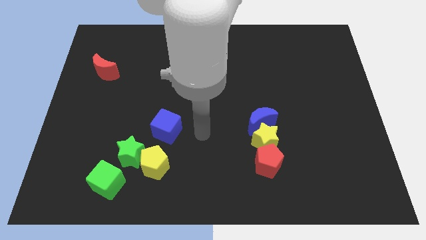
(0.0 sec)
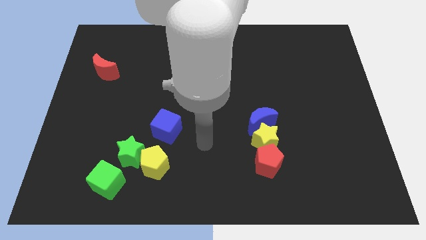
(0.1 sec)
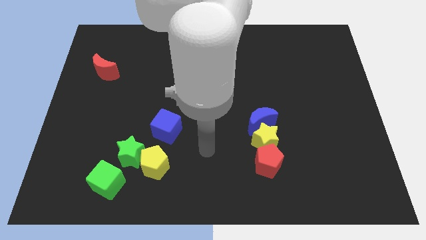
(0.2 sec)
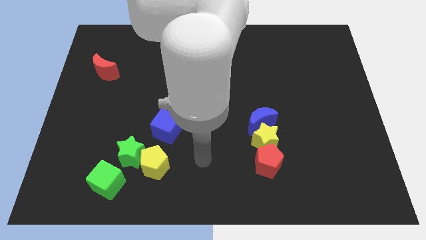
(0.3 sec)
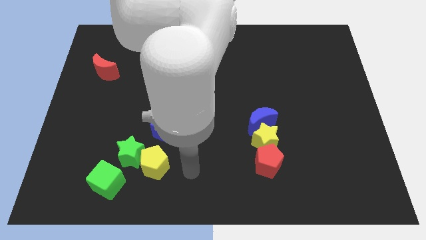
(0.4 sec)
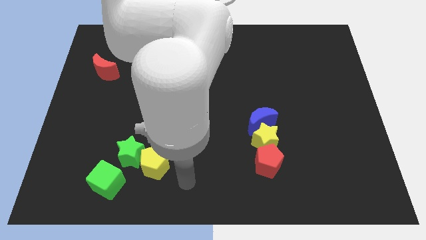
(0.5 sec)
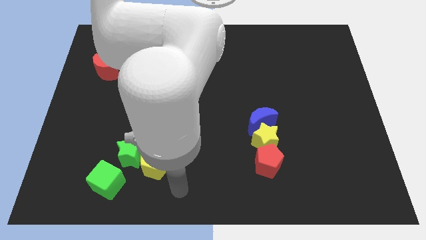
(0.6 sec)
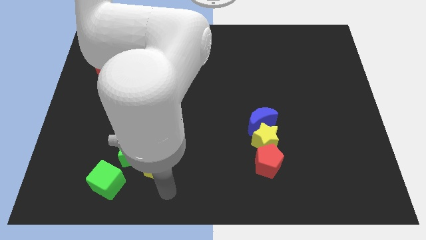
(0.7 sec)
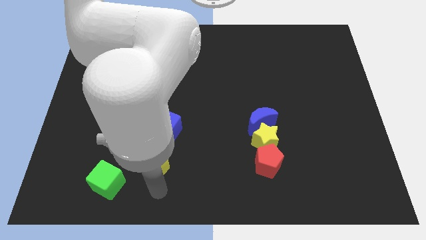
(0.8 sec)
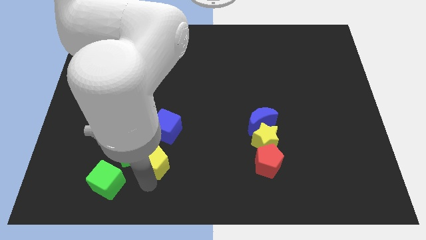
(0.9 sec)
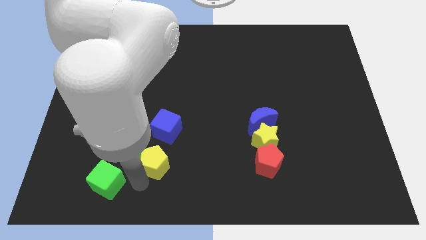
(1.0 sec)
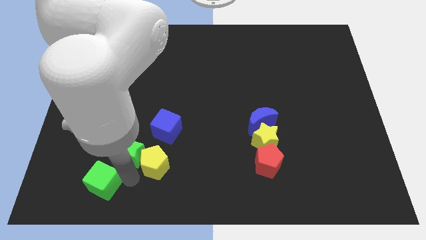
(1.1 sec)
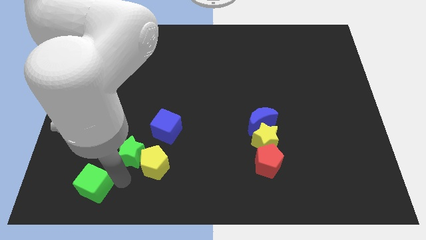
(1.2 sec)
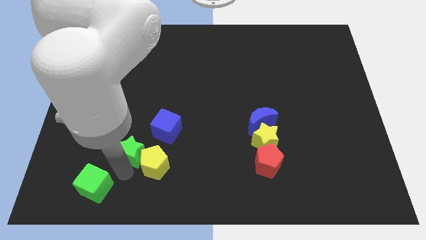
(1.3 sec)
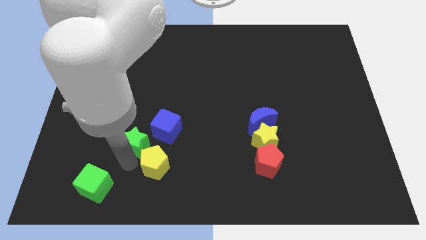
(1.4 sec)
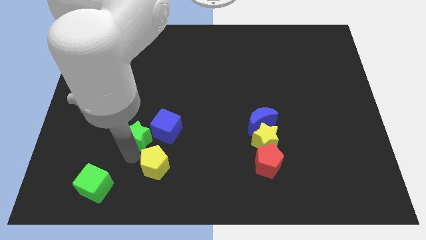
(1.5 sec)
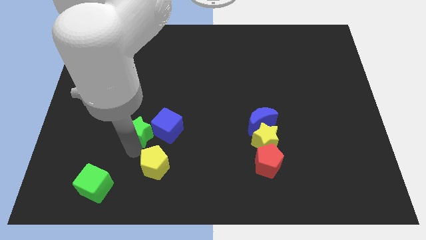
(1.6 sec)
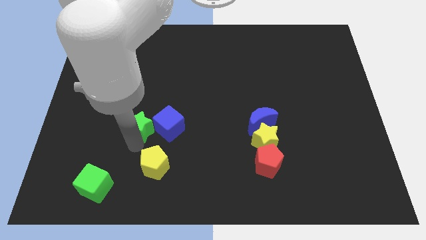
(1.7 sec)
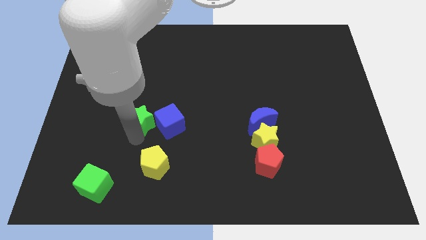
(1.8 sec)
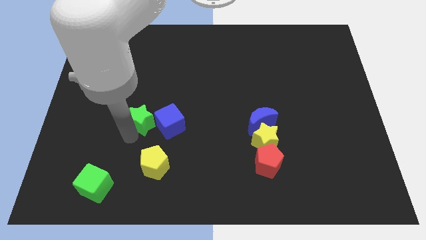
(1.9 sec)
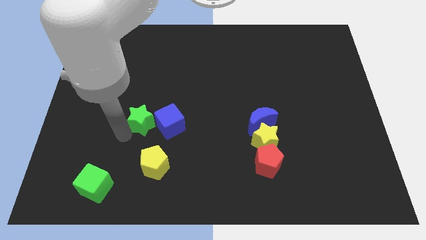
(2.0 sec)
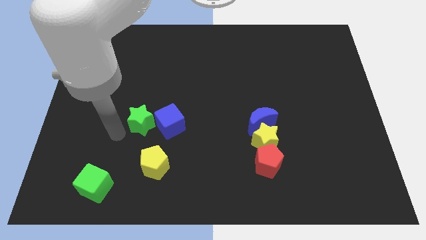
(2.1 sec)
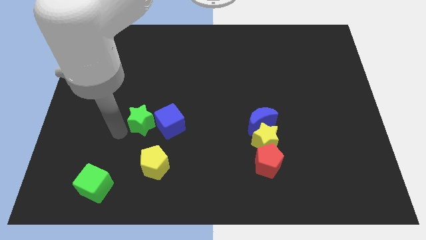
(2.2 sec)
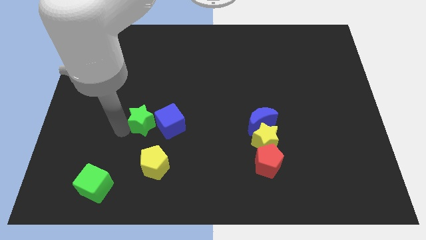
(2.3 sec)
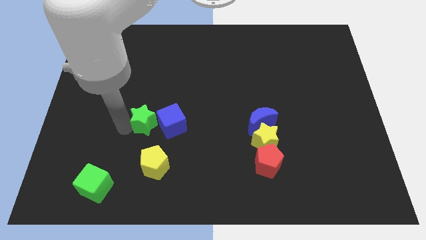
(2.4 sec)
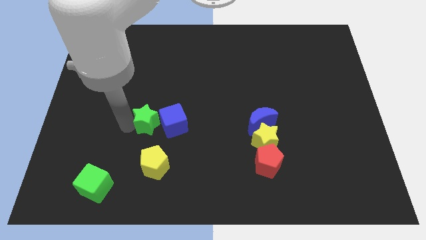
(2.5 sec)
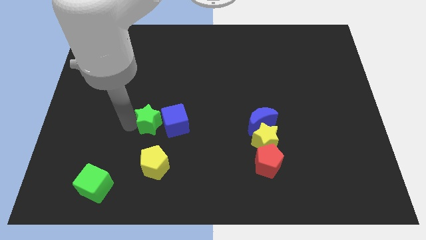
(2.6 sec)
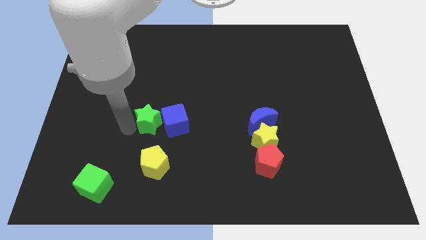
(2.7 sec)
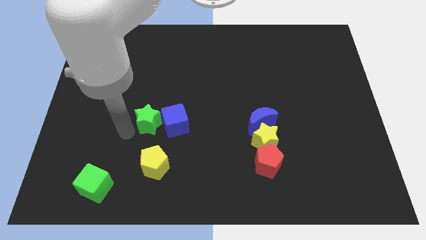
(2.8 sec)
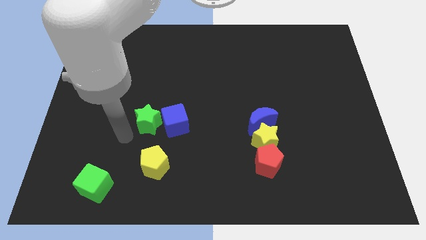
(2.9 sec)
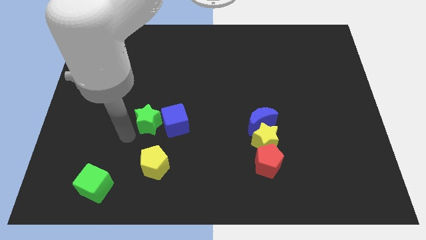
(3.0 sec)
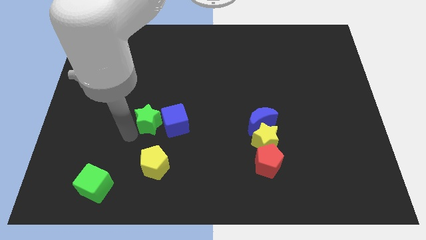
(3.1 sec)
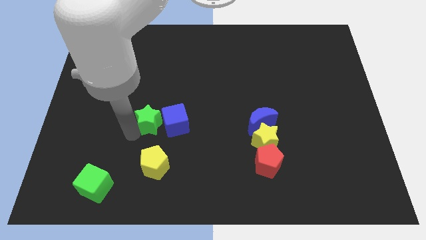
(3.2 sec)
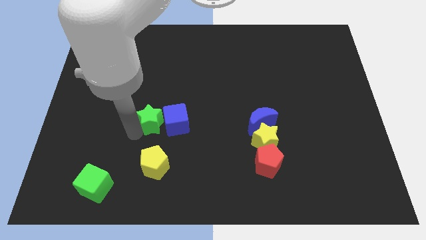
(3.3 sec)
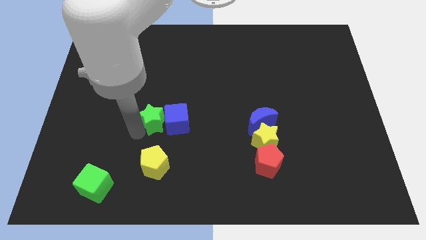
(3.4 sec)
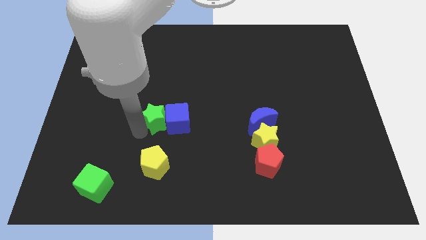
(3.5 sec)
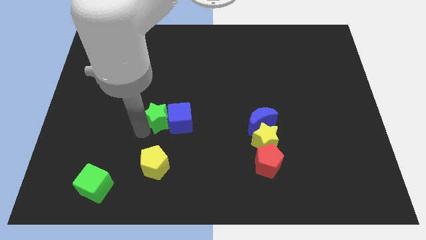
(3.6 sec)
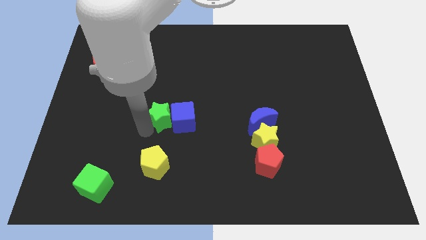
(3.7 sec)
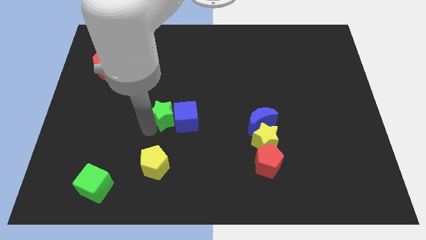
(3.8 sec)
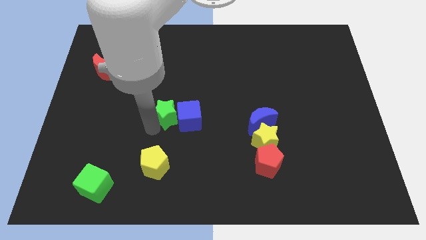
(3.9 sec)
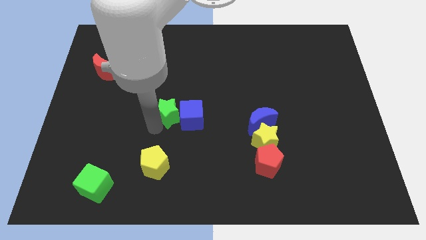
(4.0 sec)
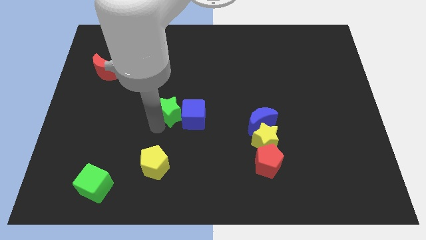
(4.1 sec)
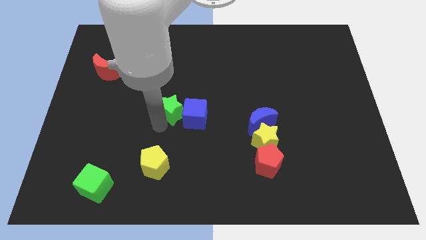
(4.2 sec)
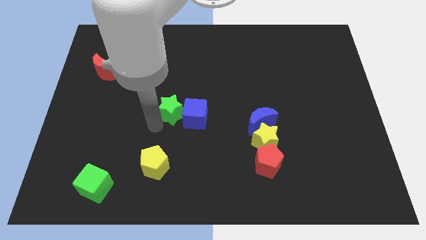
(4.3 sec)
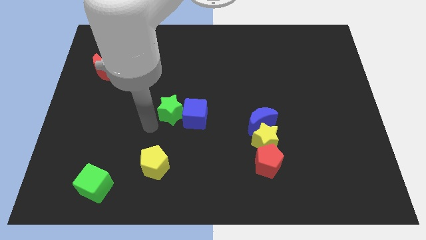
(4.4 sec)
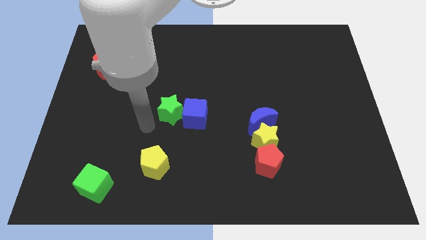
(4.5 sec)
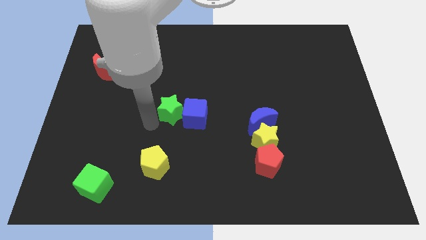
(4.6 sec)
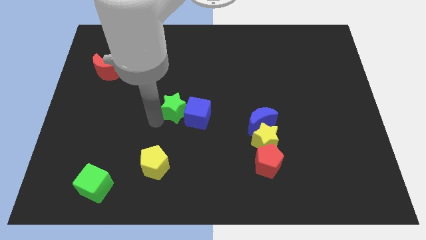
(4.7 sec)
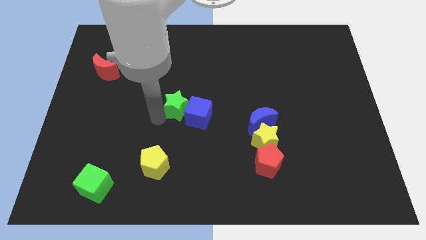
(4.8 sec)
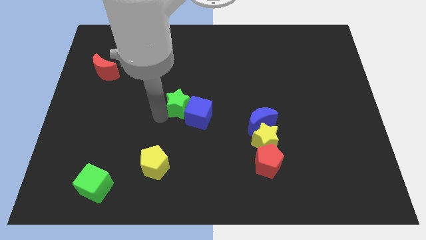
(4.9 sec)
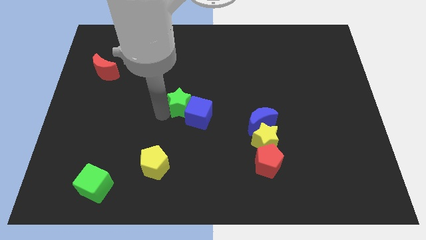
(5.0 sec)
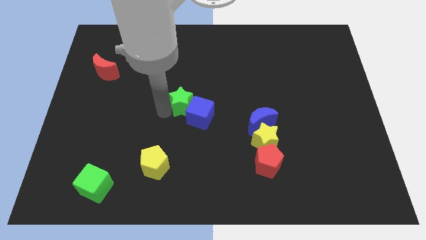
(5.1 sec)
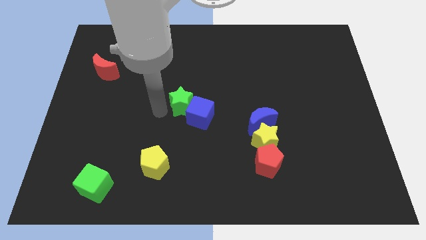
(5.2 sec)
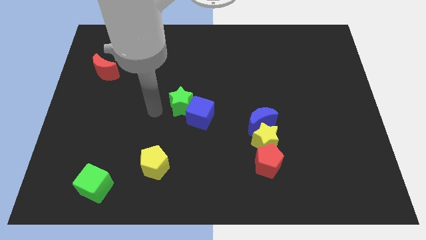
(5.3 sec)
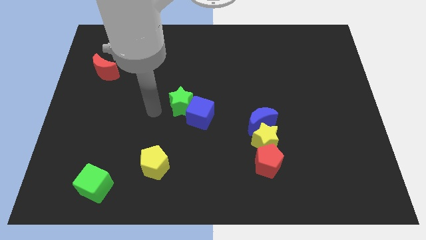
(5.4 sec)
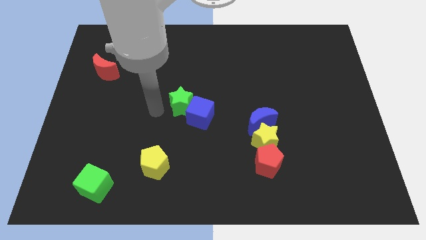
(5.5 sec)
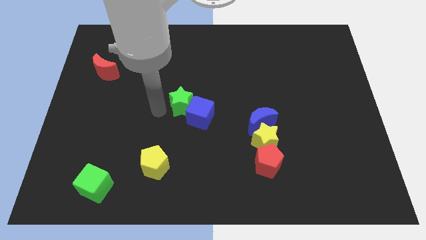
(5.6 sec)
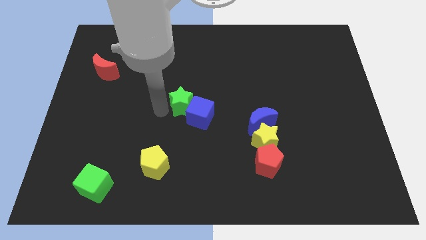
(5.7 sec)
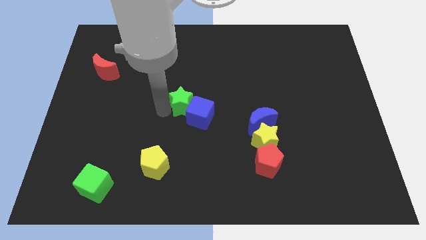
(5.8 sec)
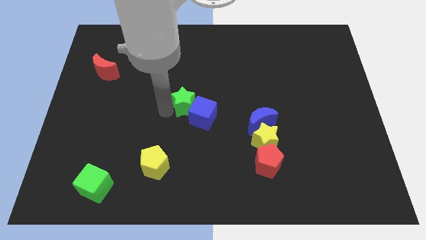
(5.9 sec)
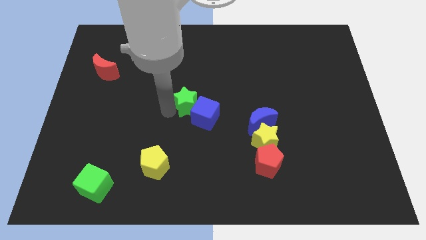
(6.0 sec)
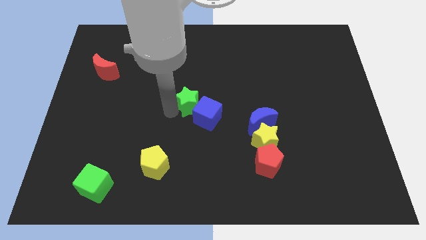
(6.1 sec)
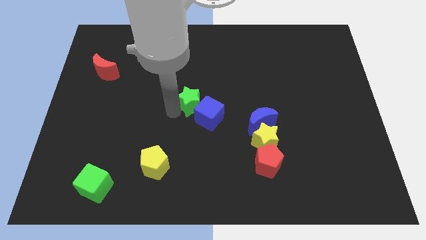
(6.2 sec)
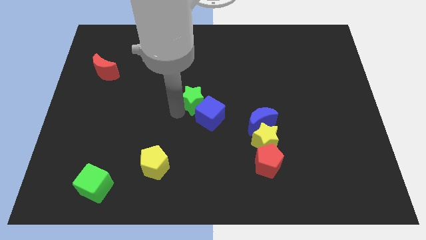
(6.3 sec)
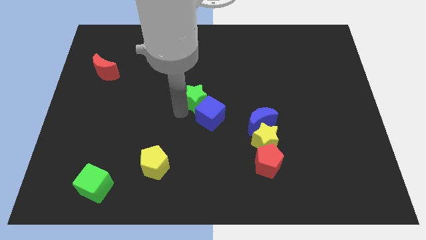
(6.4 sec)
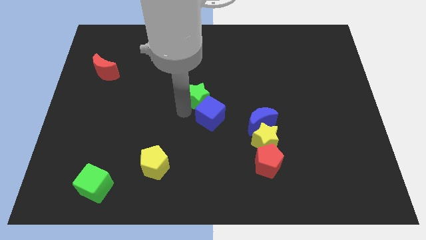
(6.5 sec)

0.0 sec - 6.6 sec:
push the green star diagonally up and right

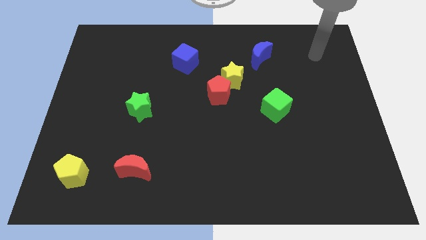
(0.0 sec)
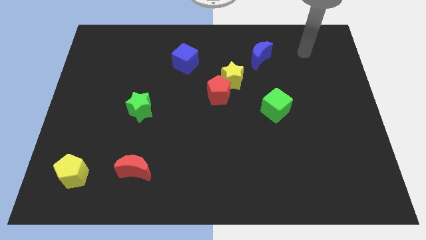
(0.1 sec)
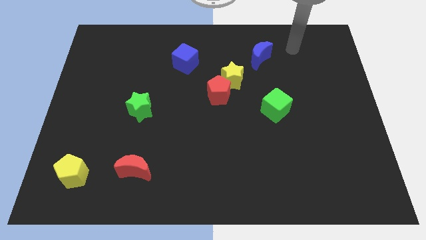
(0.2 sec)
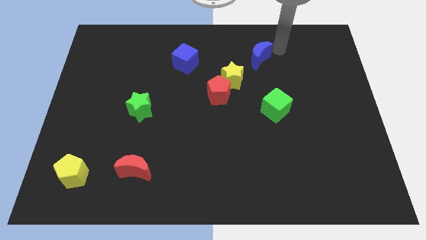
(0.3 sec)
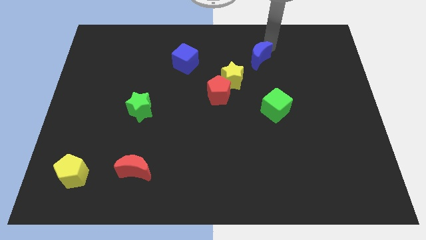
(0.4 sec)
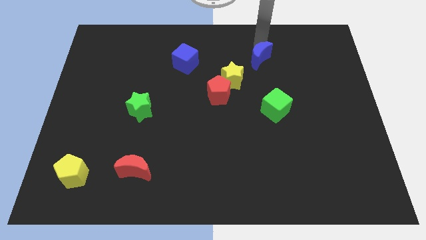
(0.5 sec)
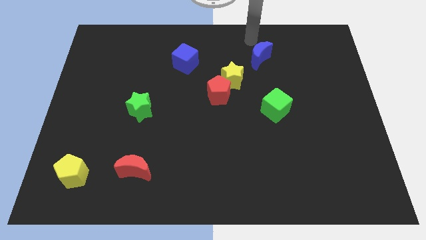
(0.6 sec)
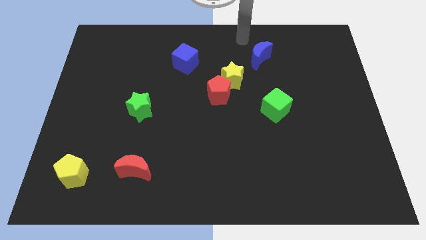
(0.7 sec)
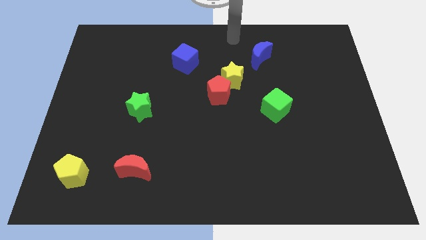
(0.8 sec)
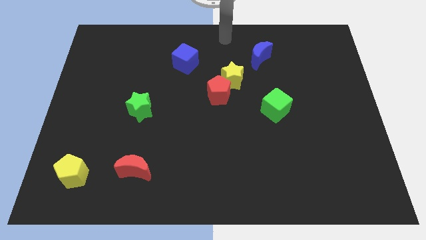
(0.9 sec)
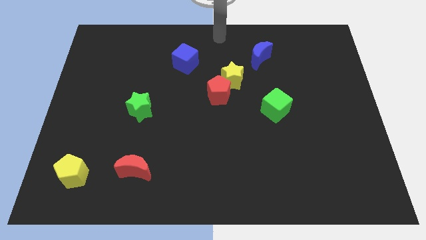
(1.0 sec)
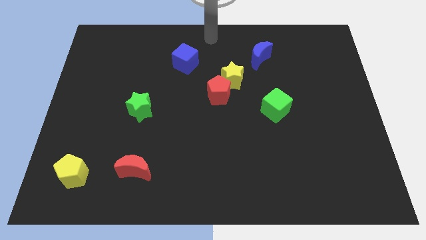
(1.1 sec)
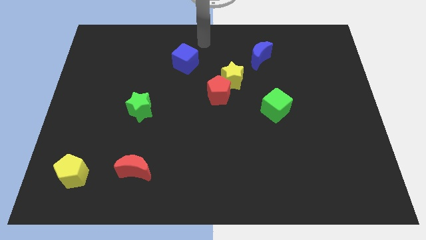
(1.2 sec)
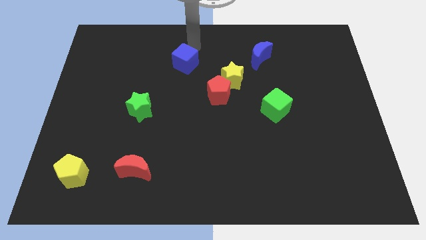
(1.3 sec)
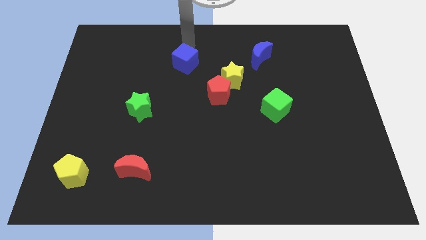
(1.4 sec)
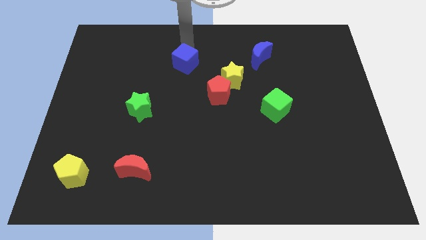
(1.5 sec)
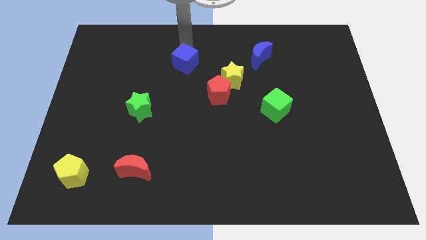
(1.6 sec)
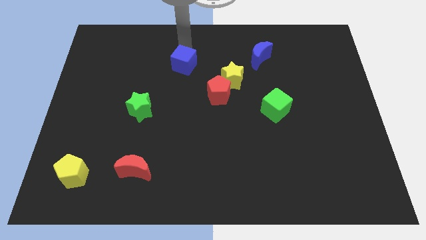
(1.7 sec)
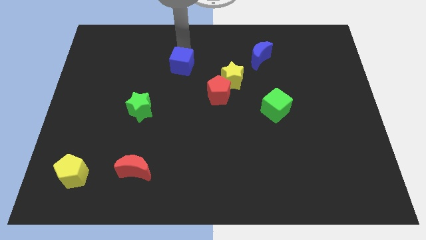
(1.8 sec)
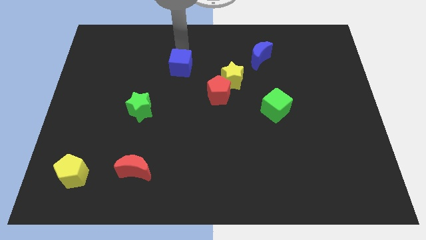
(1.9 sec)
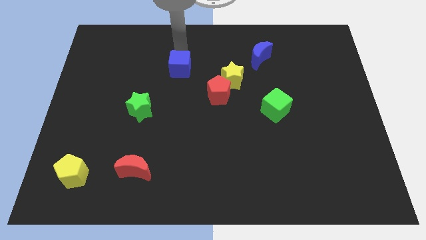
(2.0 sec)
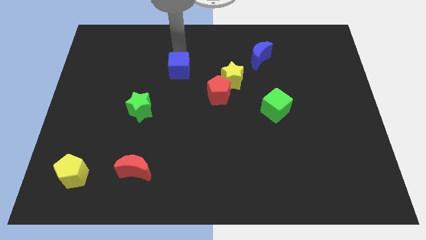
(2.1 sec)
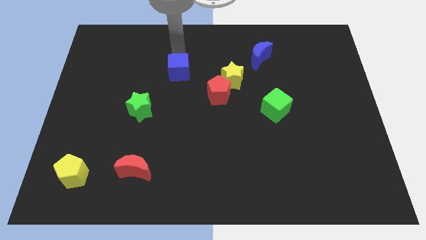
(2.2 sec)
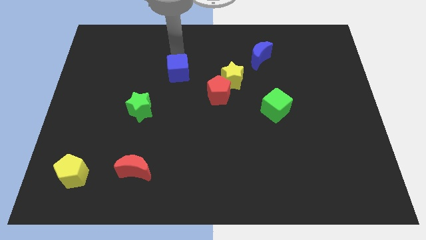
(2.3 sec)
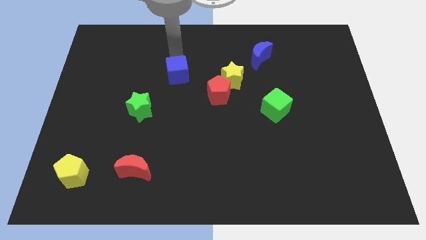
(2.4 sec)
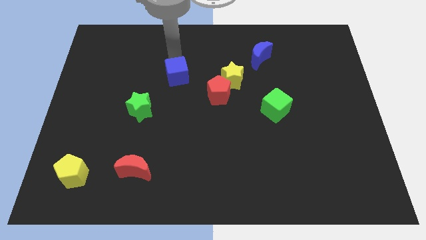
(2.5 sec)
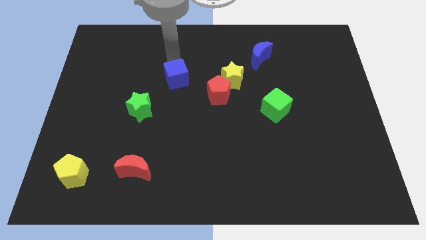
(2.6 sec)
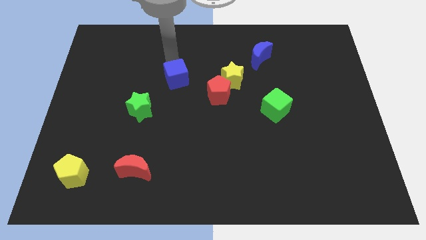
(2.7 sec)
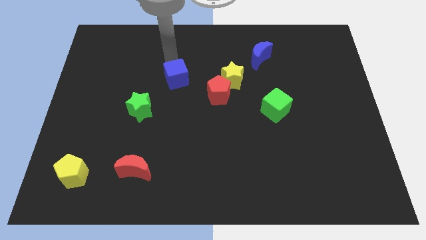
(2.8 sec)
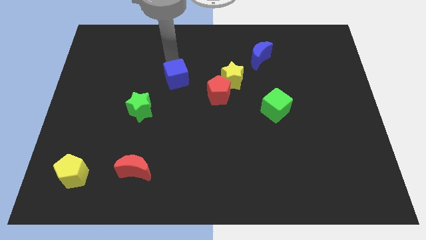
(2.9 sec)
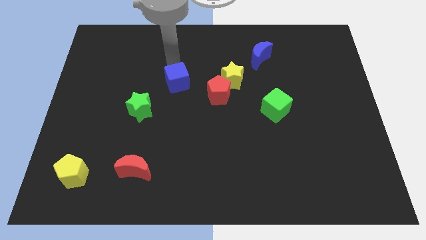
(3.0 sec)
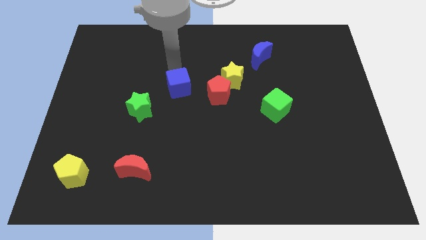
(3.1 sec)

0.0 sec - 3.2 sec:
slightly slide the blue cube downwards
